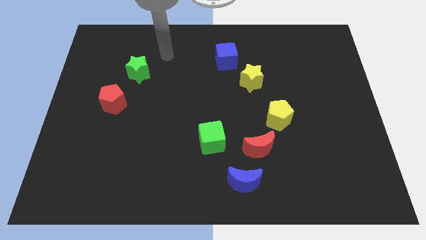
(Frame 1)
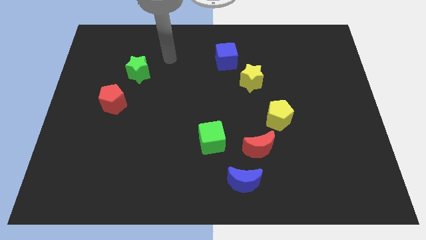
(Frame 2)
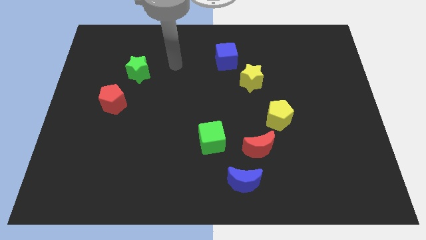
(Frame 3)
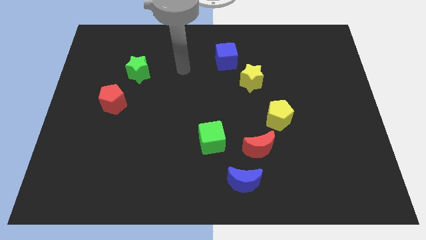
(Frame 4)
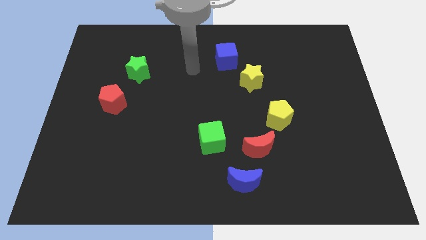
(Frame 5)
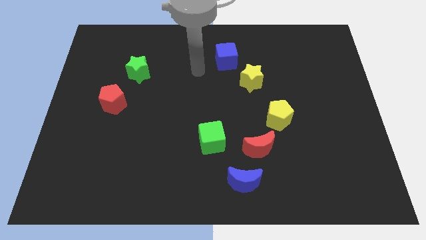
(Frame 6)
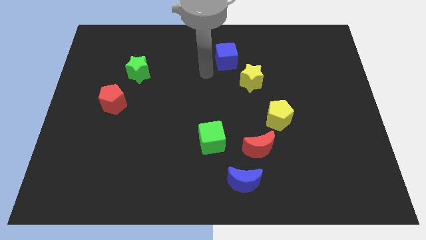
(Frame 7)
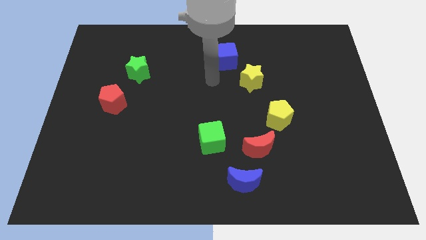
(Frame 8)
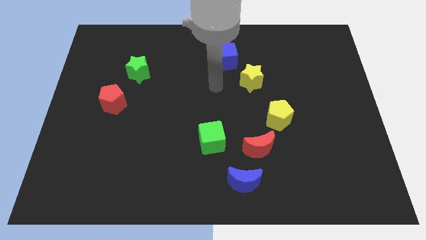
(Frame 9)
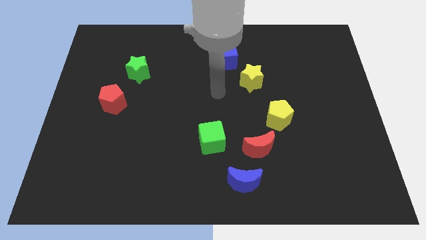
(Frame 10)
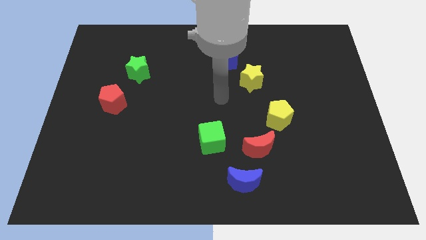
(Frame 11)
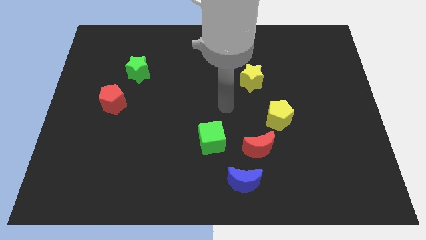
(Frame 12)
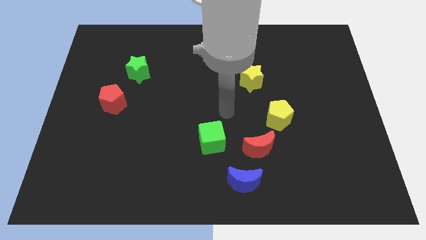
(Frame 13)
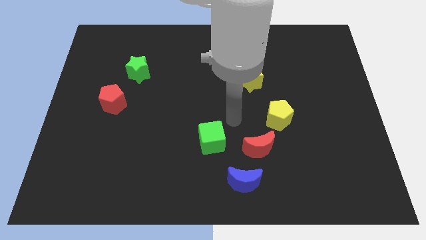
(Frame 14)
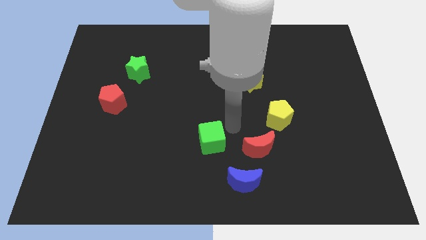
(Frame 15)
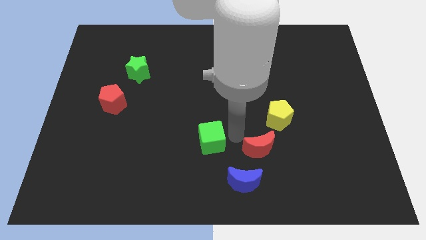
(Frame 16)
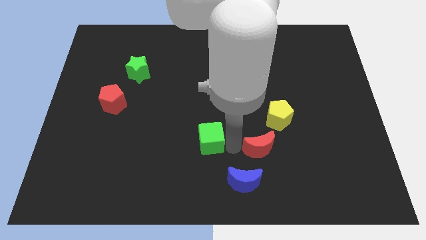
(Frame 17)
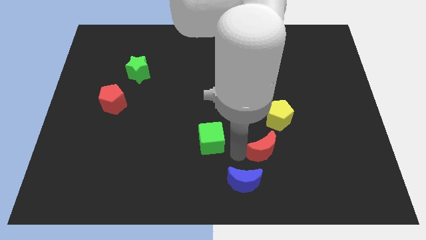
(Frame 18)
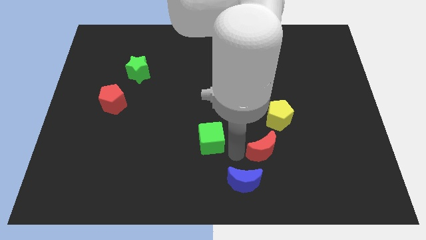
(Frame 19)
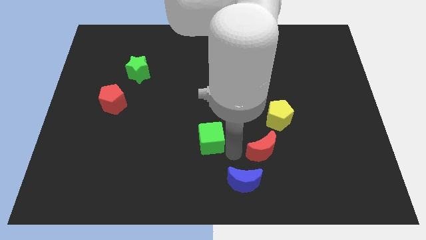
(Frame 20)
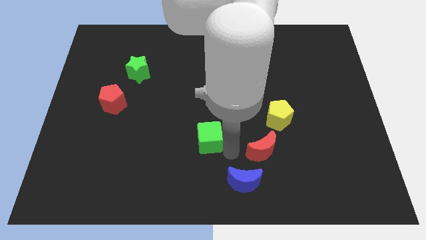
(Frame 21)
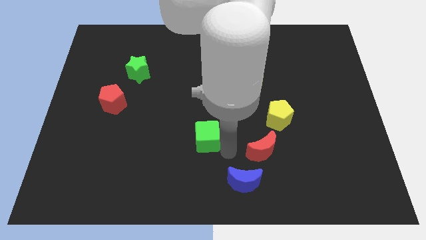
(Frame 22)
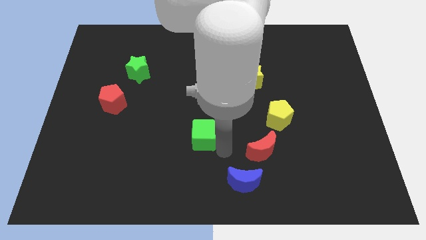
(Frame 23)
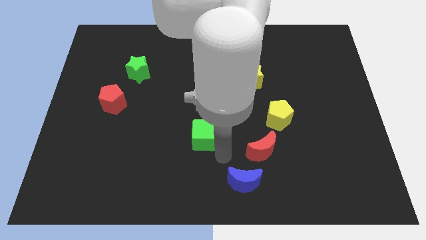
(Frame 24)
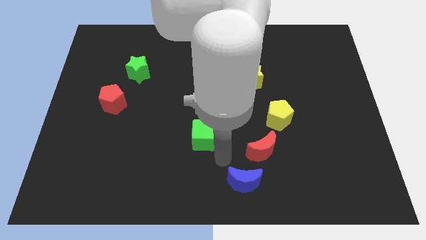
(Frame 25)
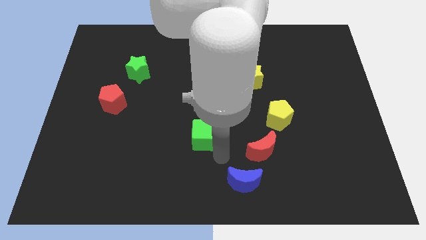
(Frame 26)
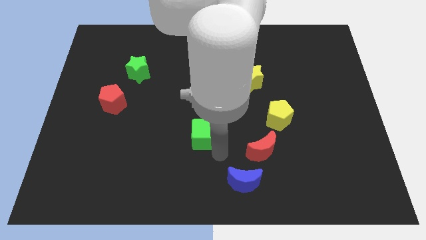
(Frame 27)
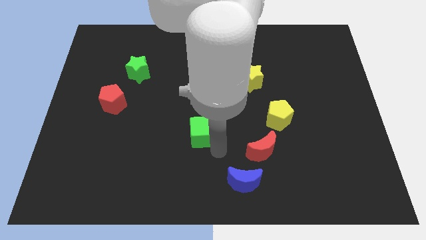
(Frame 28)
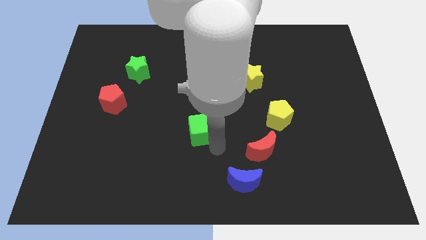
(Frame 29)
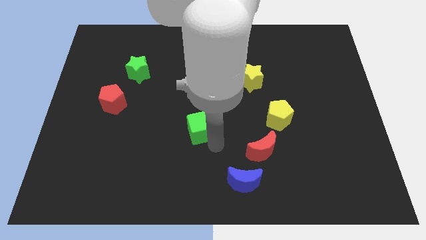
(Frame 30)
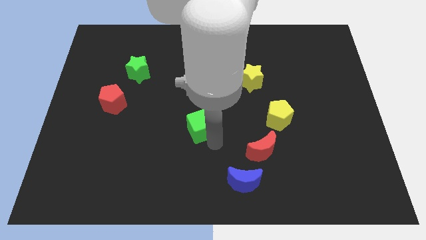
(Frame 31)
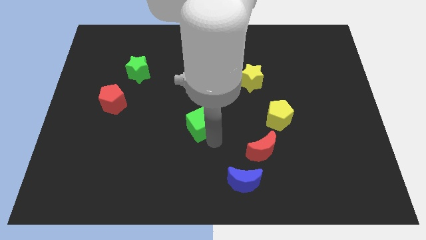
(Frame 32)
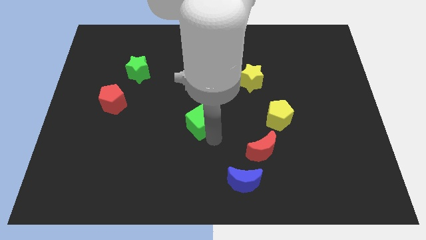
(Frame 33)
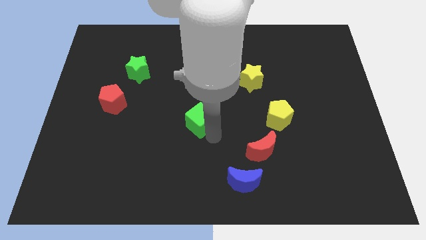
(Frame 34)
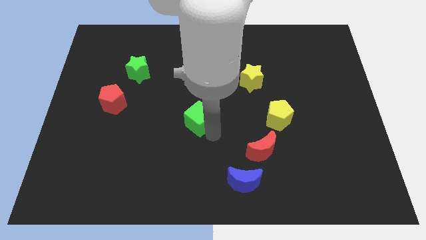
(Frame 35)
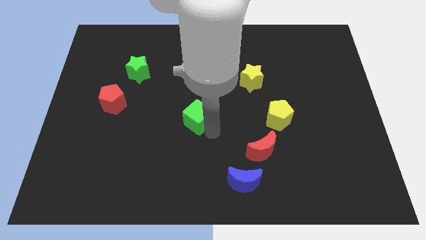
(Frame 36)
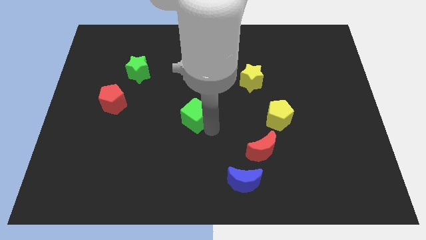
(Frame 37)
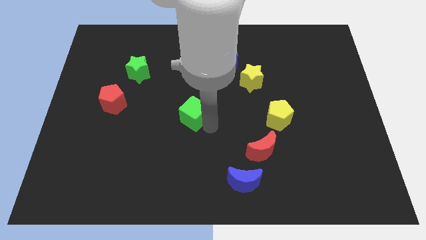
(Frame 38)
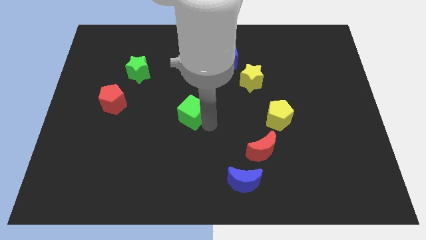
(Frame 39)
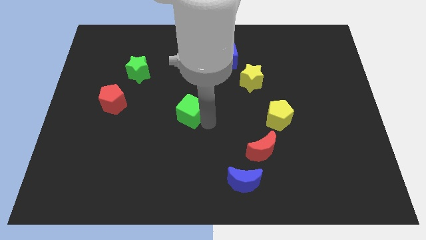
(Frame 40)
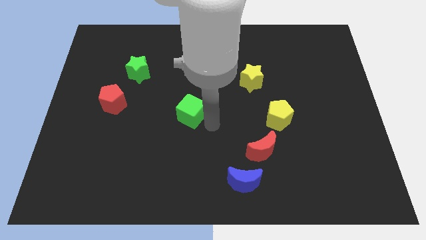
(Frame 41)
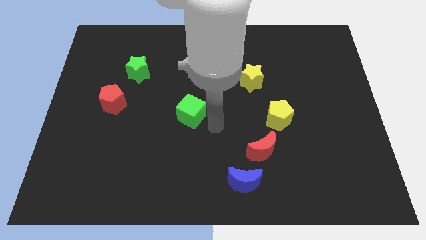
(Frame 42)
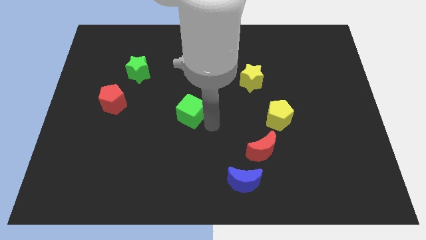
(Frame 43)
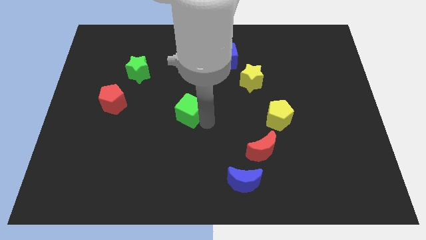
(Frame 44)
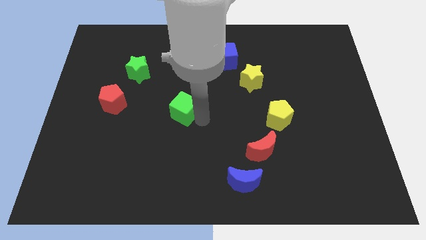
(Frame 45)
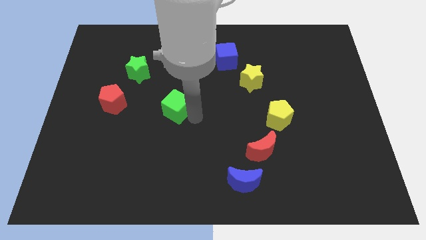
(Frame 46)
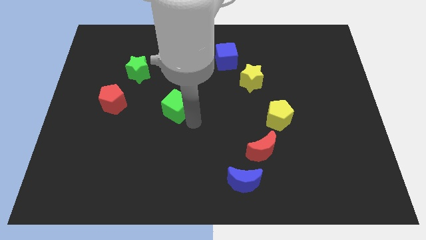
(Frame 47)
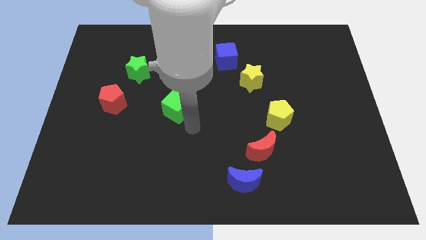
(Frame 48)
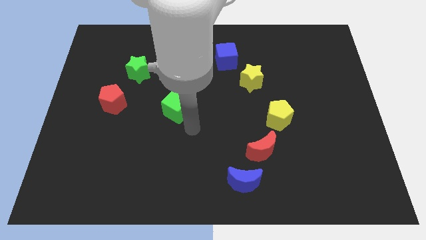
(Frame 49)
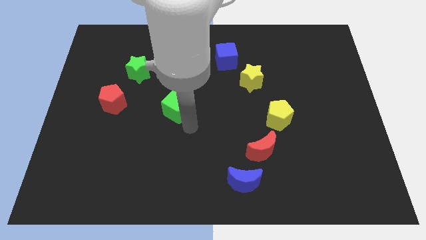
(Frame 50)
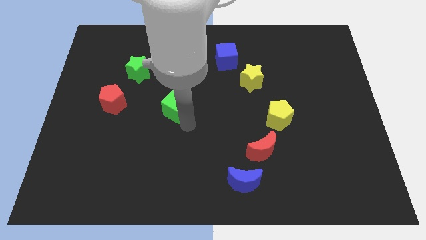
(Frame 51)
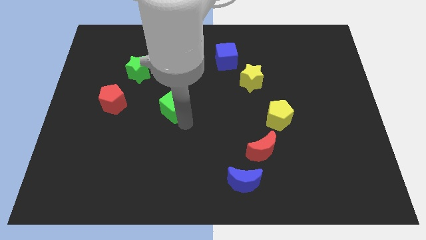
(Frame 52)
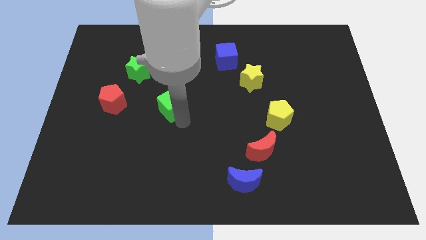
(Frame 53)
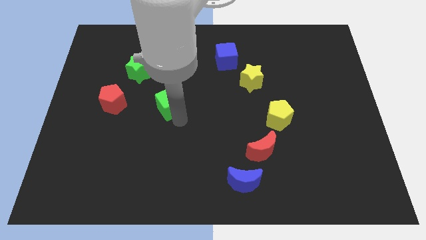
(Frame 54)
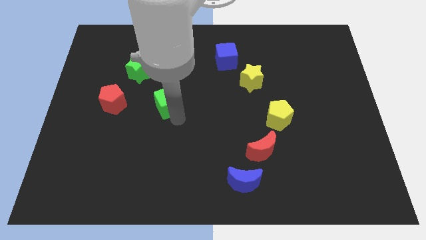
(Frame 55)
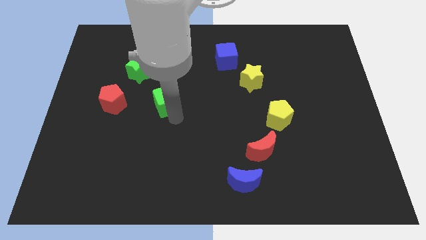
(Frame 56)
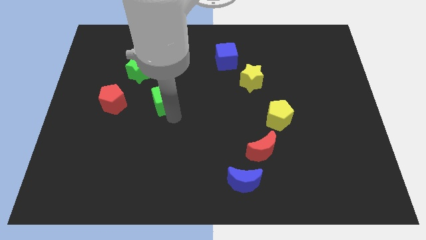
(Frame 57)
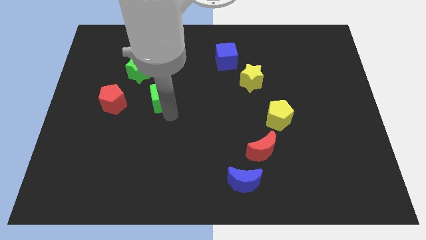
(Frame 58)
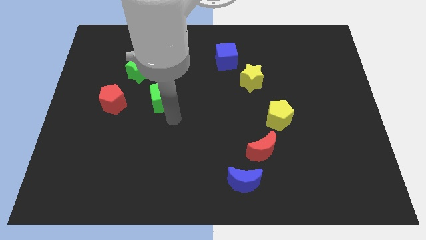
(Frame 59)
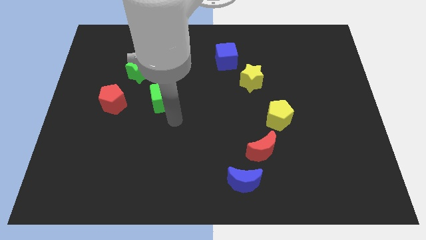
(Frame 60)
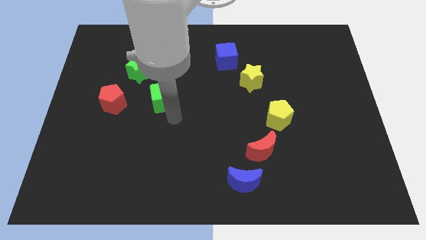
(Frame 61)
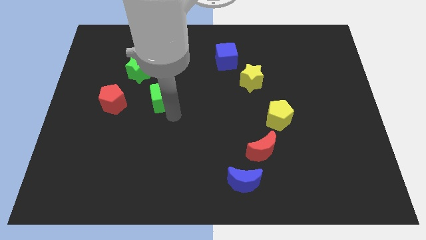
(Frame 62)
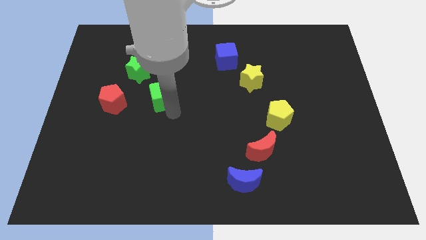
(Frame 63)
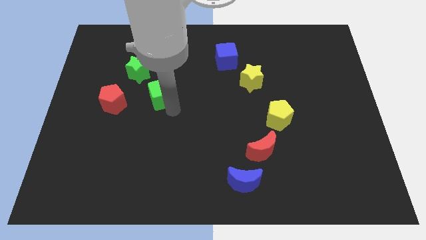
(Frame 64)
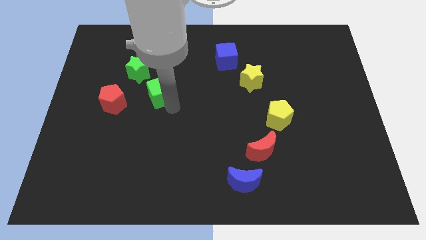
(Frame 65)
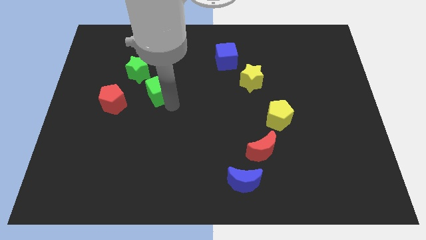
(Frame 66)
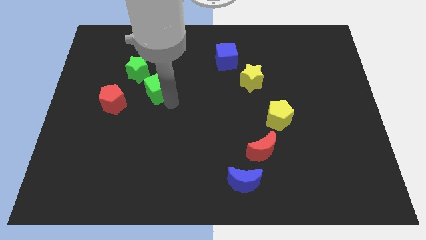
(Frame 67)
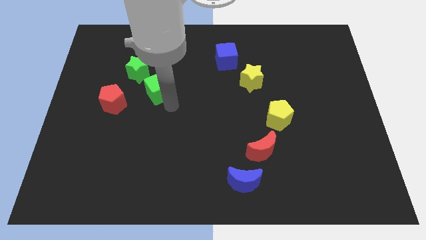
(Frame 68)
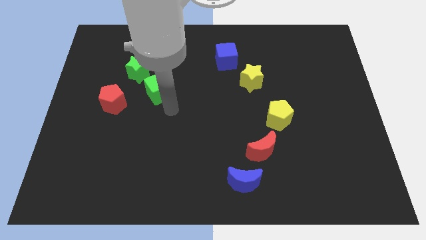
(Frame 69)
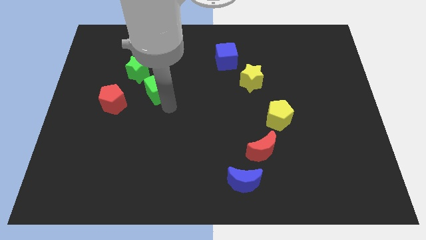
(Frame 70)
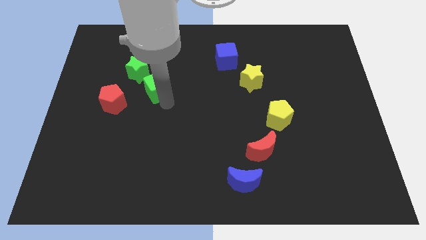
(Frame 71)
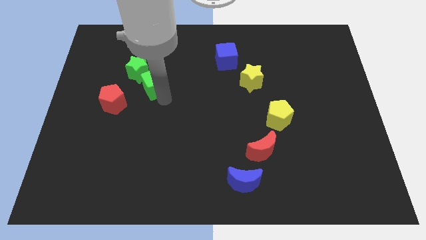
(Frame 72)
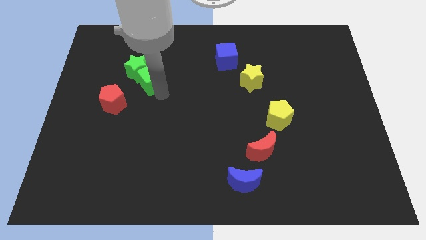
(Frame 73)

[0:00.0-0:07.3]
slide the green cube close to the green star
